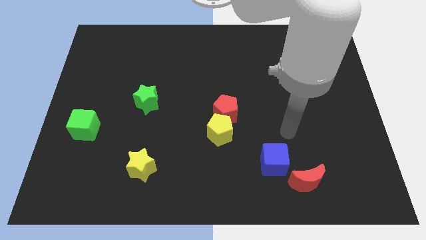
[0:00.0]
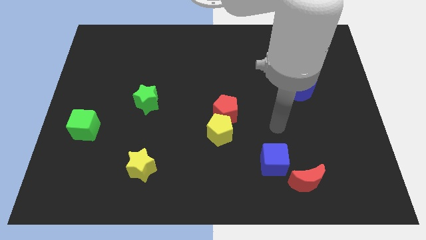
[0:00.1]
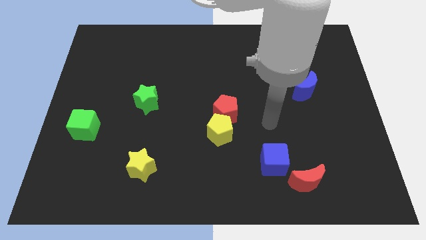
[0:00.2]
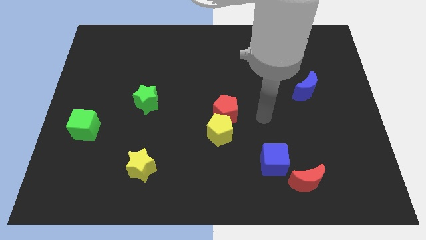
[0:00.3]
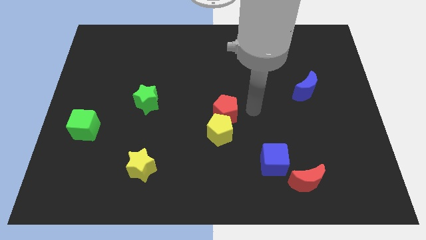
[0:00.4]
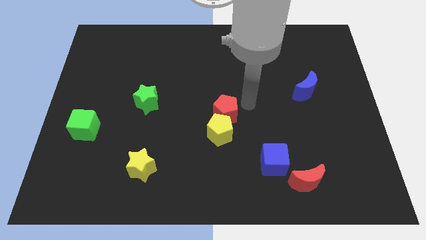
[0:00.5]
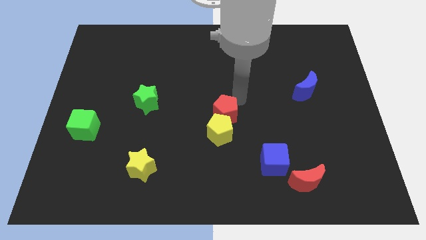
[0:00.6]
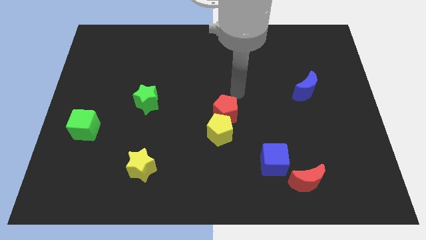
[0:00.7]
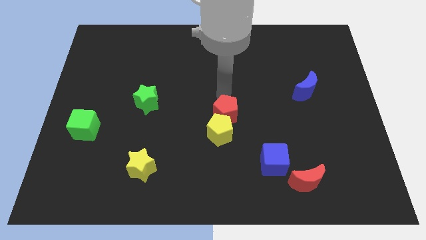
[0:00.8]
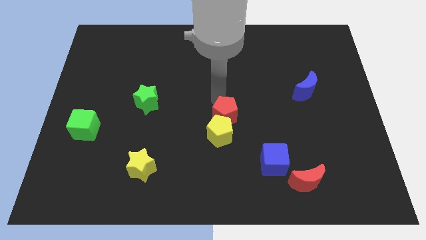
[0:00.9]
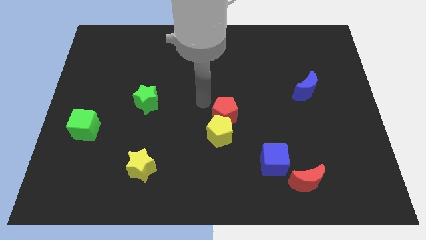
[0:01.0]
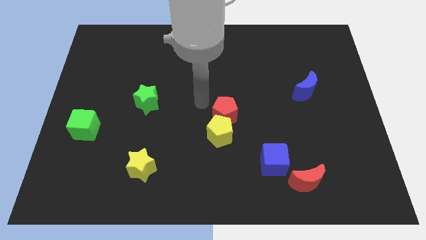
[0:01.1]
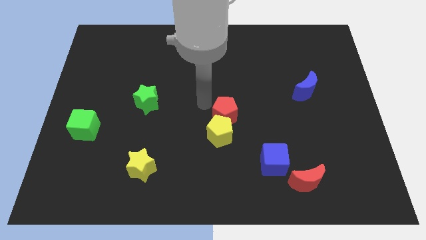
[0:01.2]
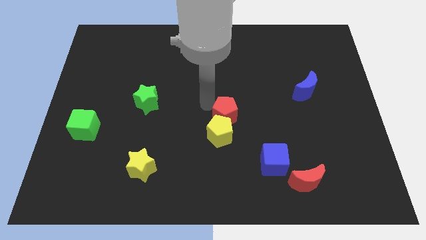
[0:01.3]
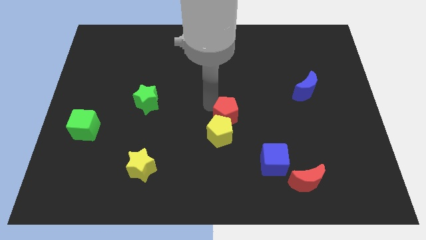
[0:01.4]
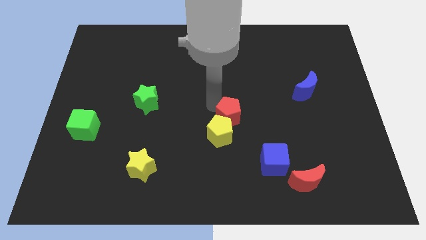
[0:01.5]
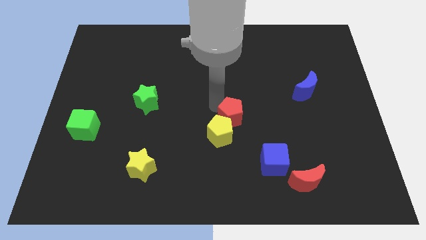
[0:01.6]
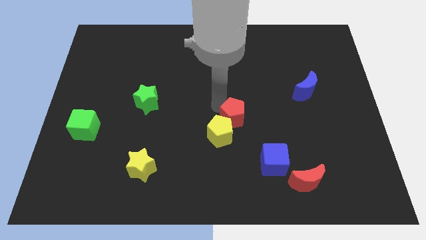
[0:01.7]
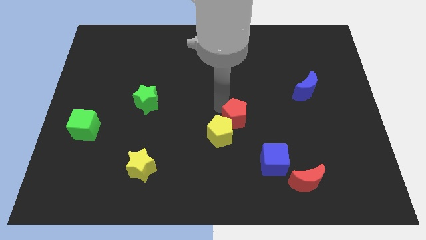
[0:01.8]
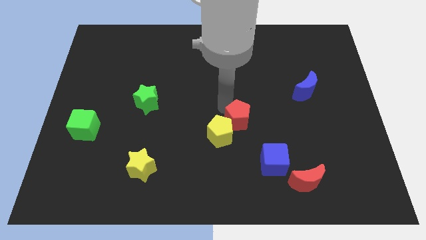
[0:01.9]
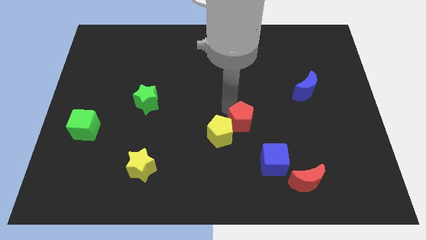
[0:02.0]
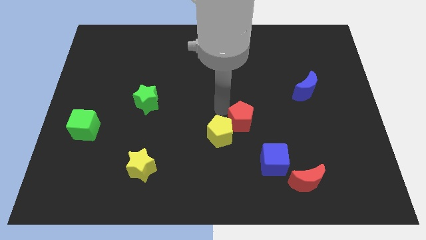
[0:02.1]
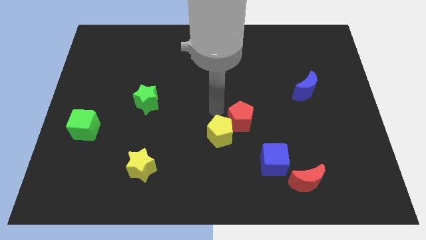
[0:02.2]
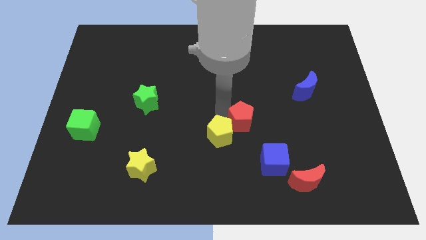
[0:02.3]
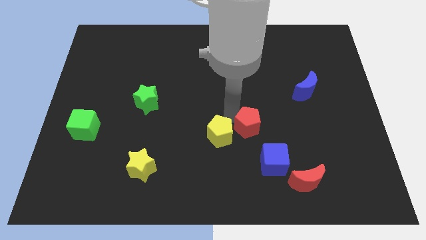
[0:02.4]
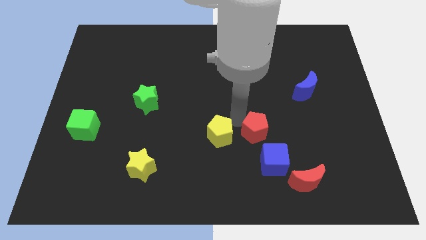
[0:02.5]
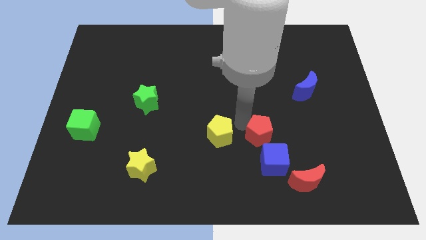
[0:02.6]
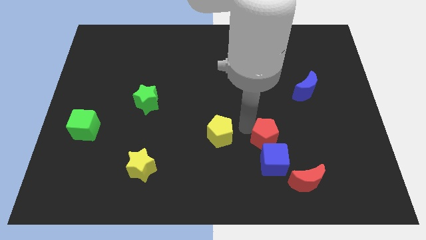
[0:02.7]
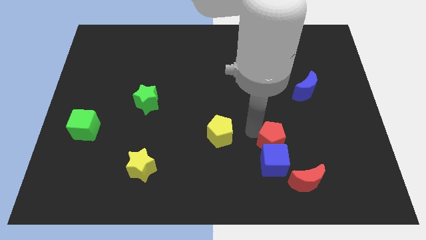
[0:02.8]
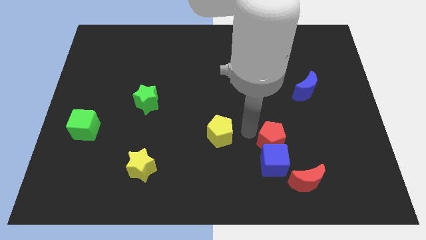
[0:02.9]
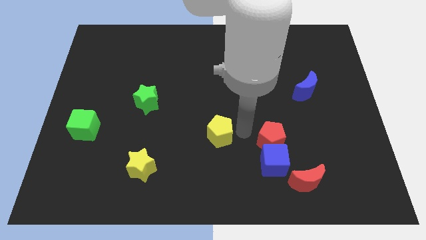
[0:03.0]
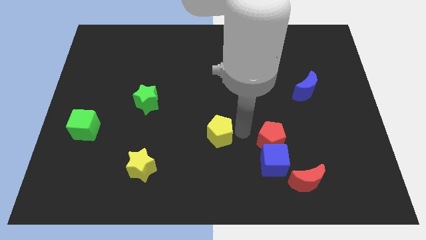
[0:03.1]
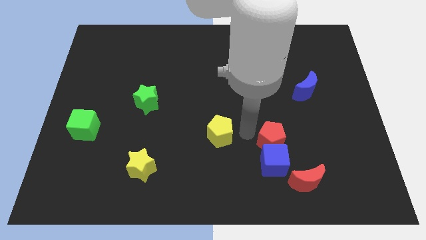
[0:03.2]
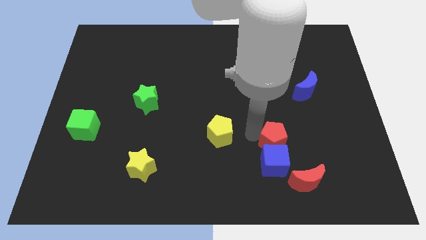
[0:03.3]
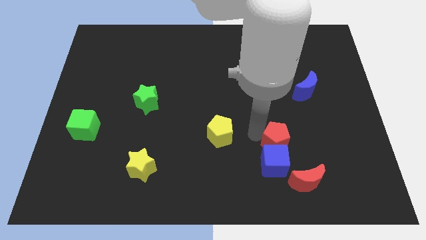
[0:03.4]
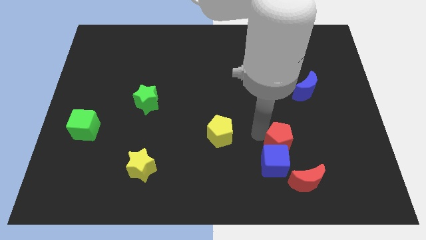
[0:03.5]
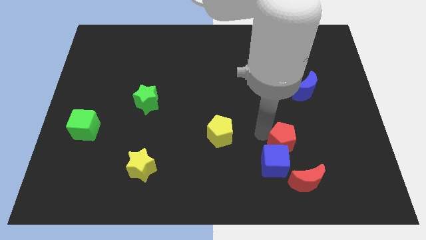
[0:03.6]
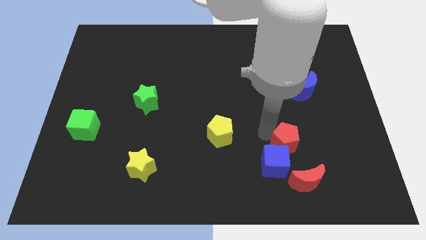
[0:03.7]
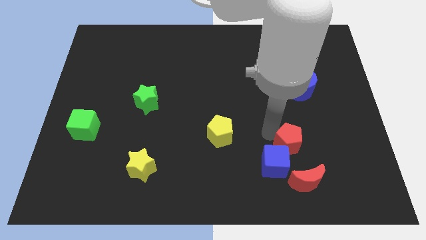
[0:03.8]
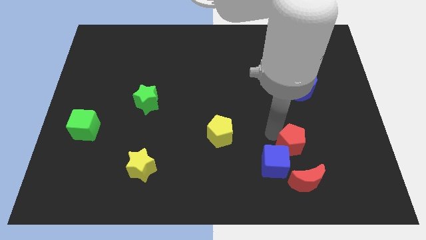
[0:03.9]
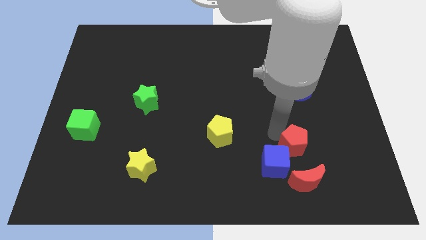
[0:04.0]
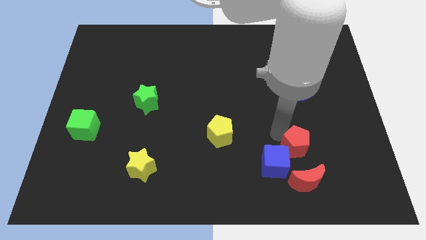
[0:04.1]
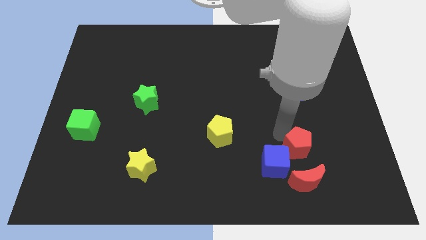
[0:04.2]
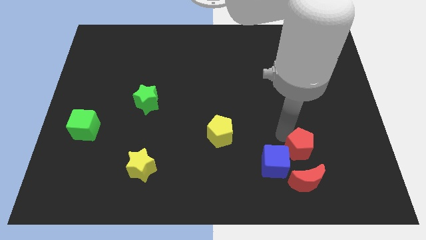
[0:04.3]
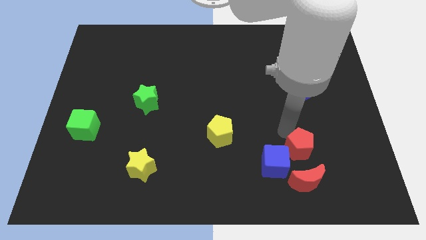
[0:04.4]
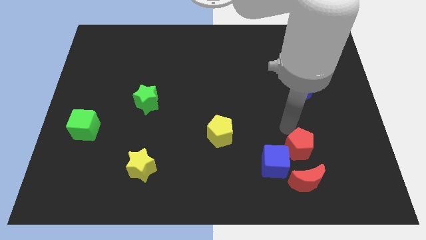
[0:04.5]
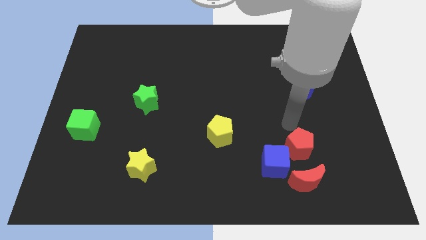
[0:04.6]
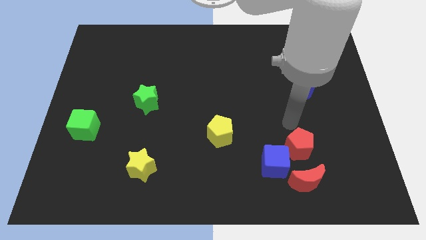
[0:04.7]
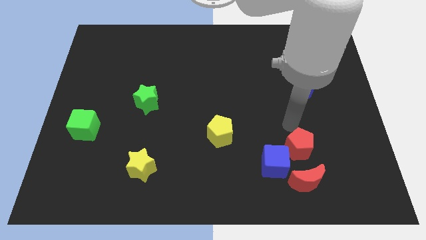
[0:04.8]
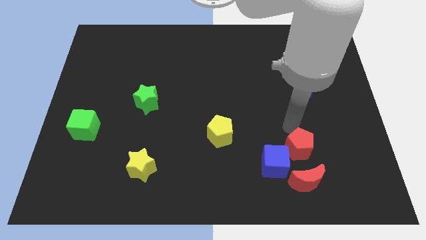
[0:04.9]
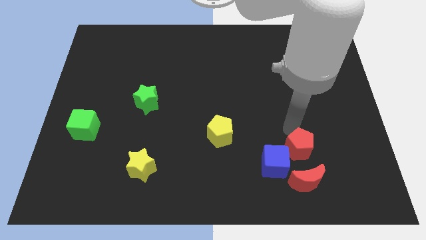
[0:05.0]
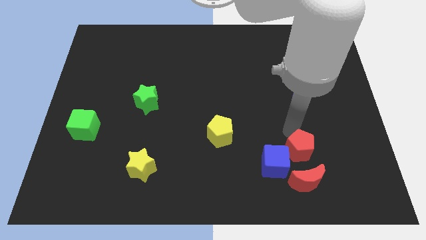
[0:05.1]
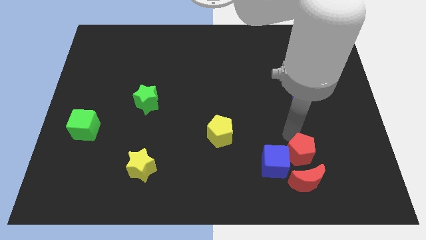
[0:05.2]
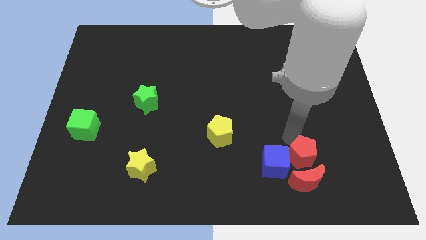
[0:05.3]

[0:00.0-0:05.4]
put the red pentagon close to the red moon

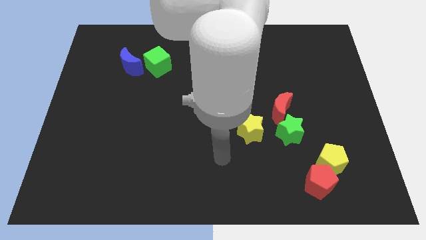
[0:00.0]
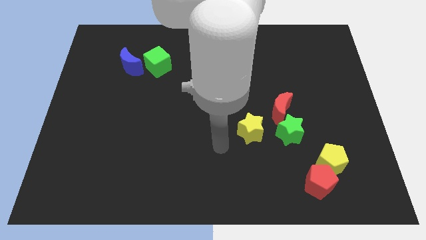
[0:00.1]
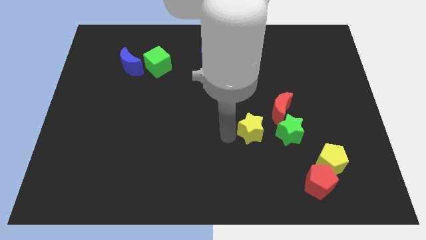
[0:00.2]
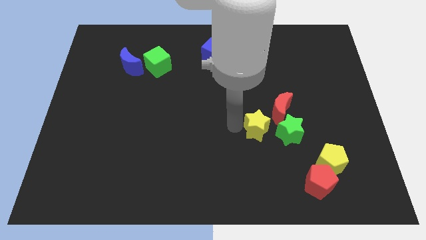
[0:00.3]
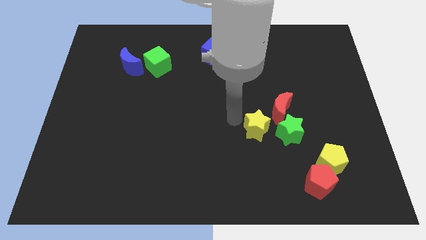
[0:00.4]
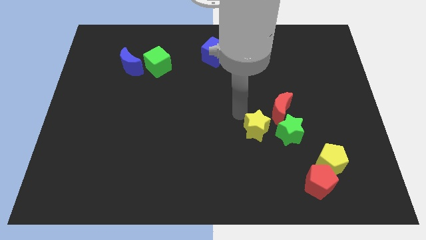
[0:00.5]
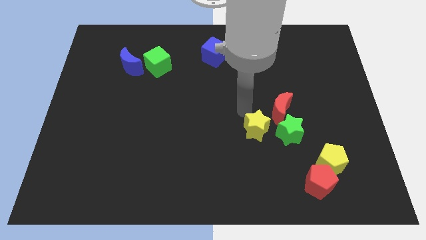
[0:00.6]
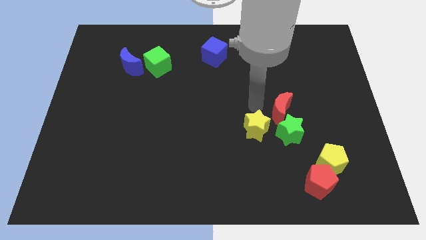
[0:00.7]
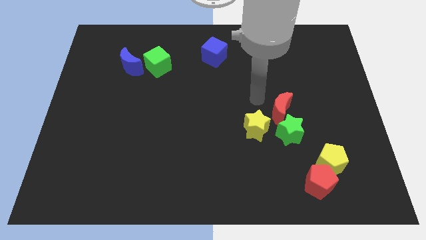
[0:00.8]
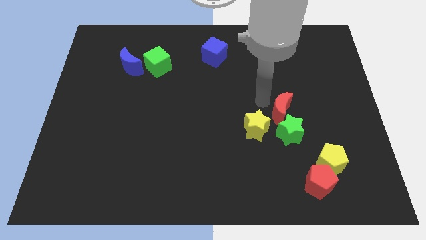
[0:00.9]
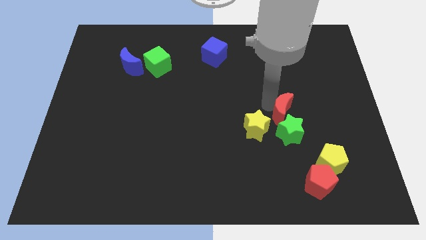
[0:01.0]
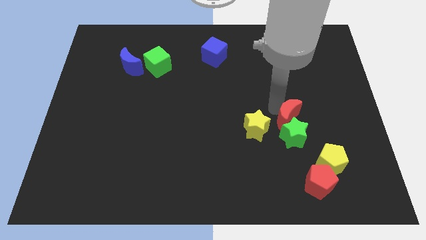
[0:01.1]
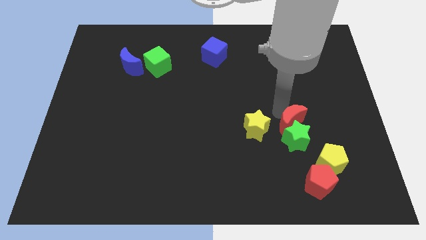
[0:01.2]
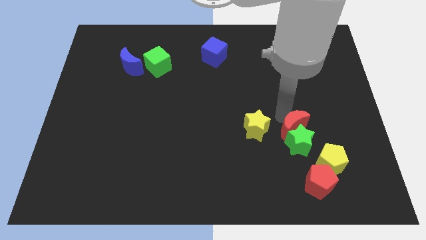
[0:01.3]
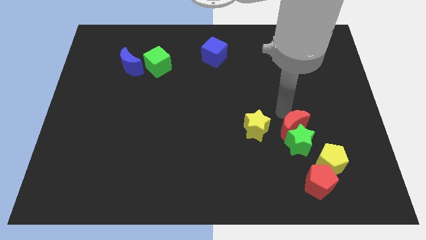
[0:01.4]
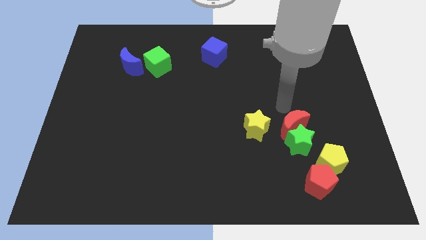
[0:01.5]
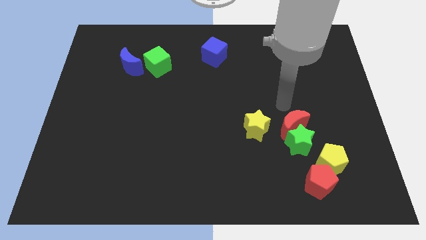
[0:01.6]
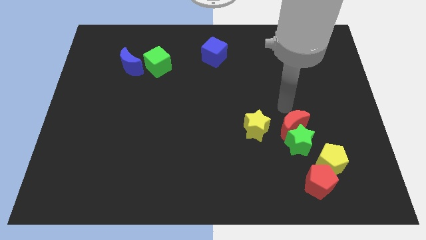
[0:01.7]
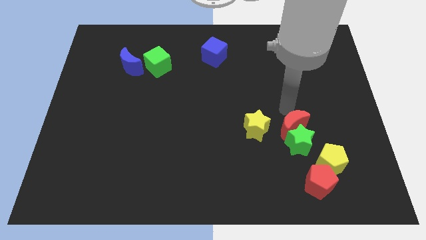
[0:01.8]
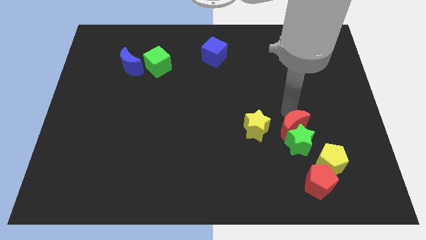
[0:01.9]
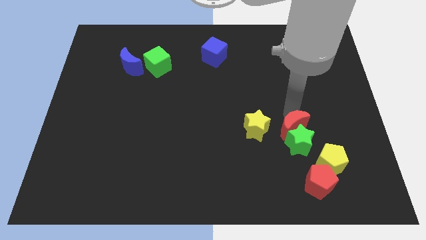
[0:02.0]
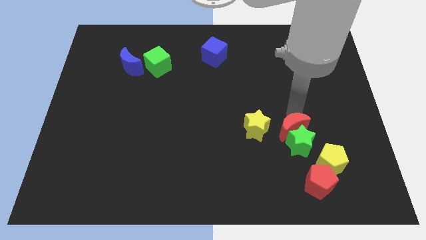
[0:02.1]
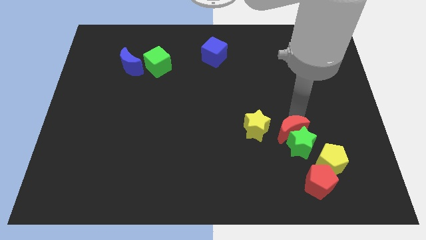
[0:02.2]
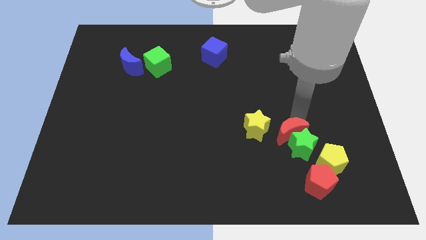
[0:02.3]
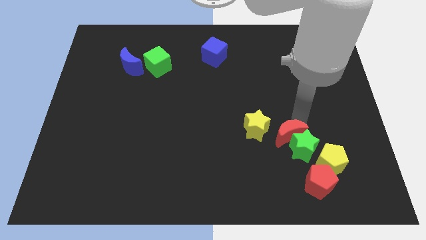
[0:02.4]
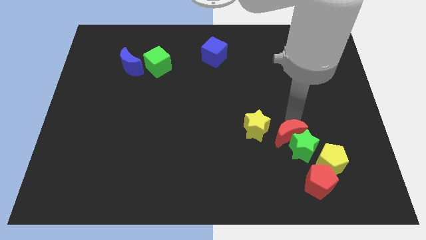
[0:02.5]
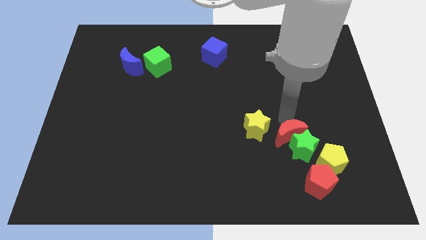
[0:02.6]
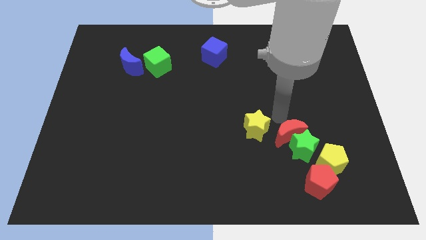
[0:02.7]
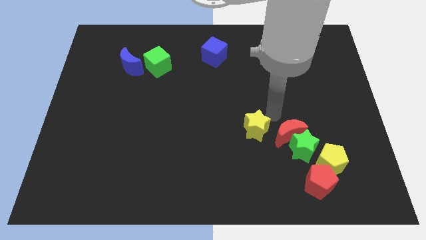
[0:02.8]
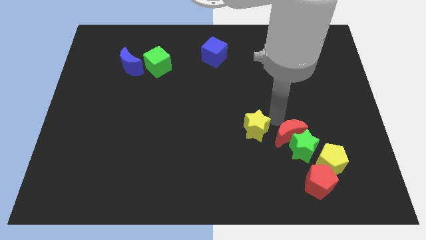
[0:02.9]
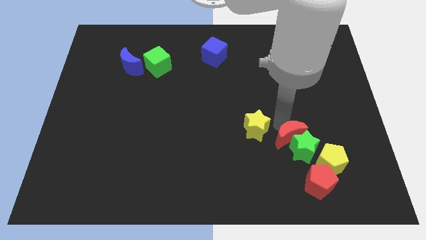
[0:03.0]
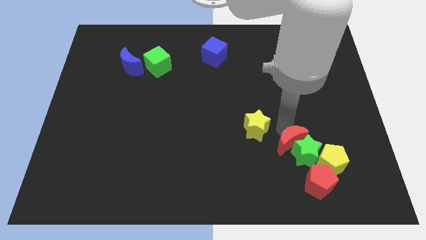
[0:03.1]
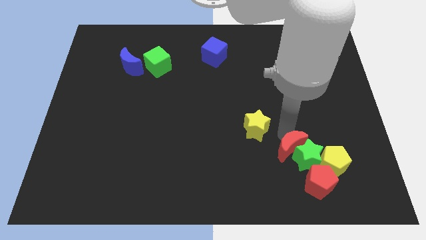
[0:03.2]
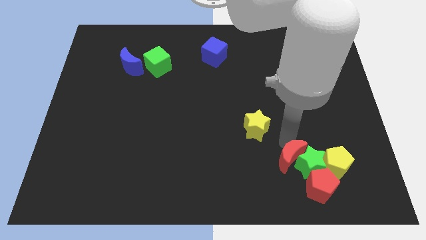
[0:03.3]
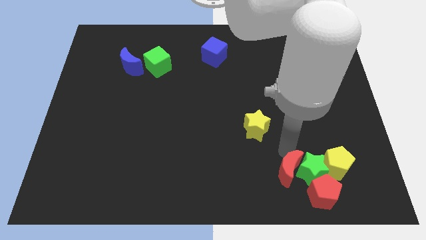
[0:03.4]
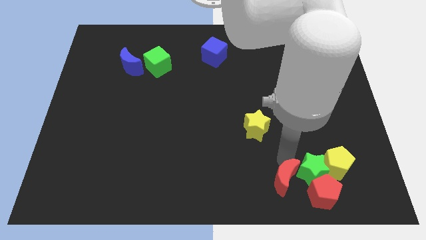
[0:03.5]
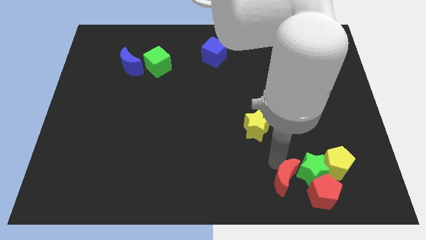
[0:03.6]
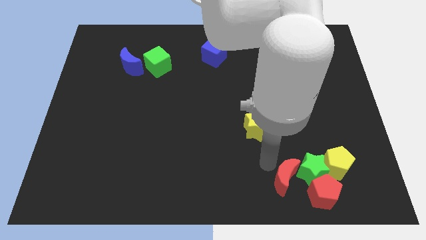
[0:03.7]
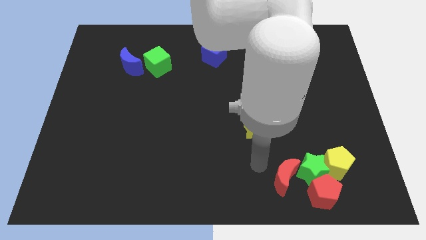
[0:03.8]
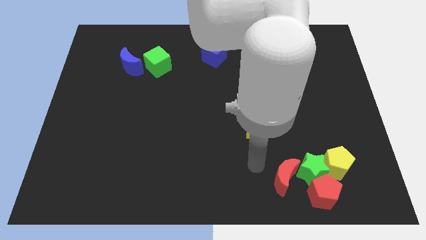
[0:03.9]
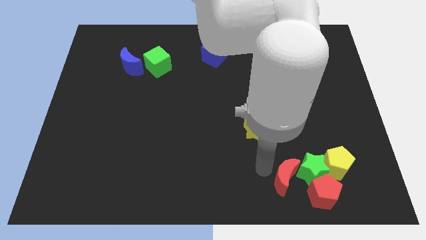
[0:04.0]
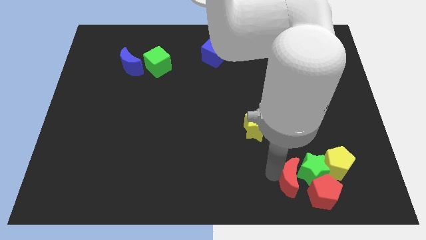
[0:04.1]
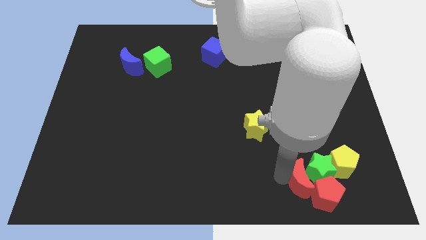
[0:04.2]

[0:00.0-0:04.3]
slide the red moon towards the red pentagon
